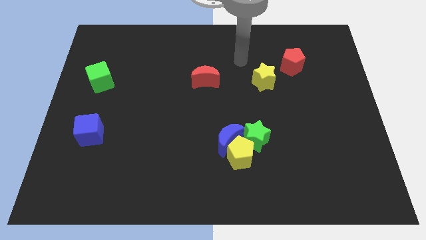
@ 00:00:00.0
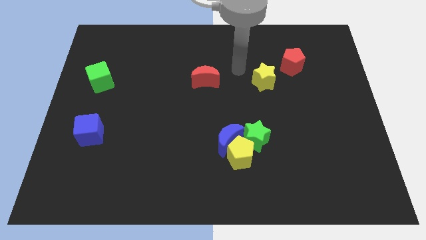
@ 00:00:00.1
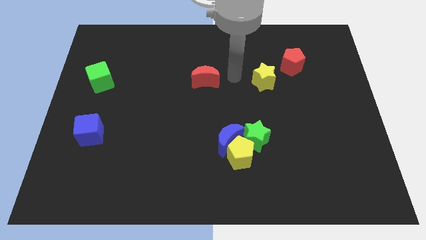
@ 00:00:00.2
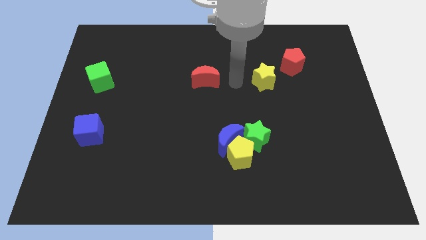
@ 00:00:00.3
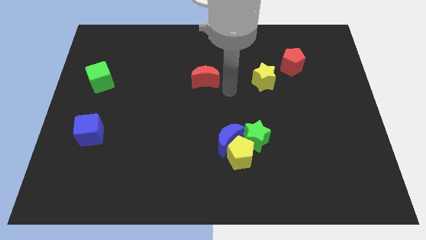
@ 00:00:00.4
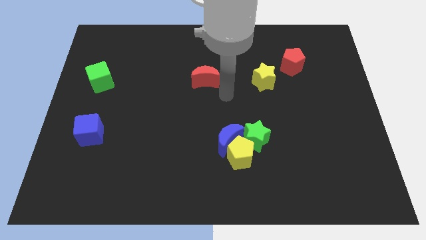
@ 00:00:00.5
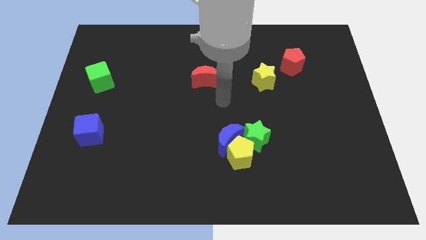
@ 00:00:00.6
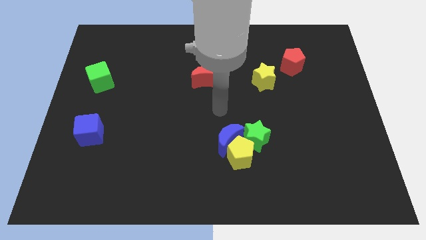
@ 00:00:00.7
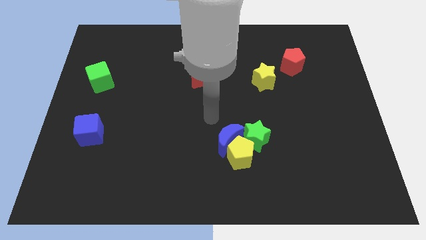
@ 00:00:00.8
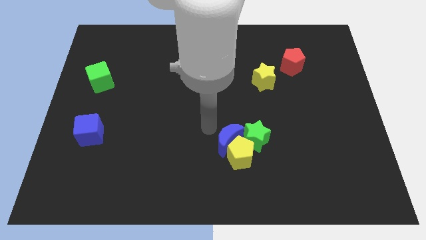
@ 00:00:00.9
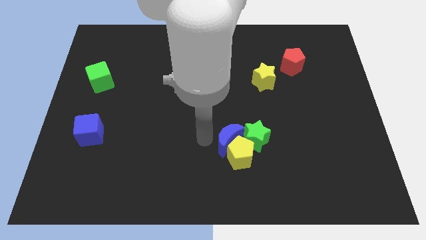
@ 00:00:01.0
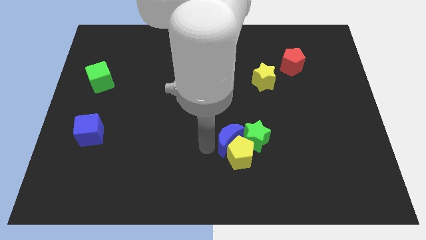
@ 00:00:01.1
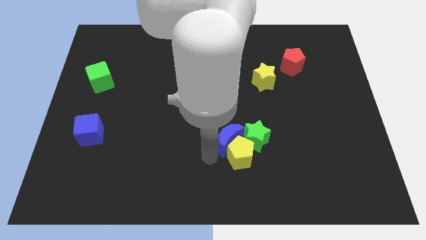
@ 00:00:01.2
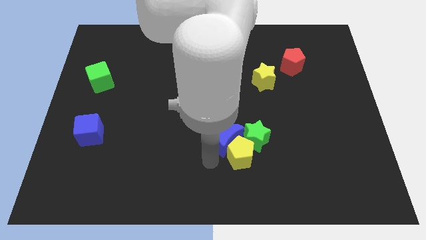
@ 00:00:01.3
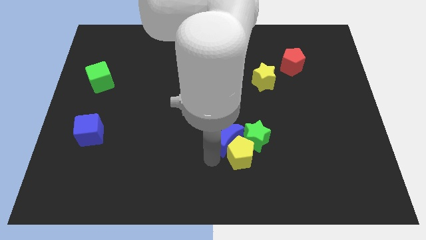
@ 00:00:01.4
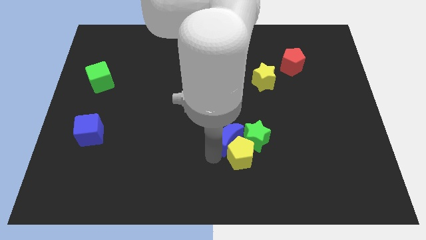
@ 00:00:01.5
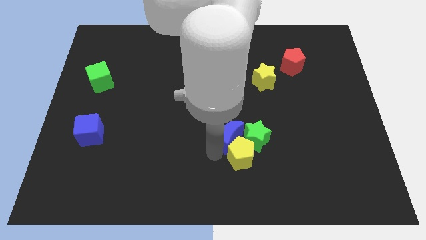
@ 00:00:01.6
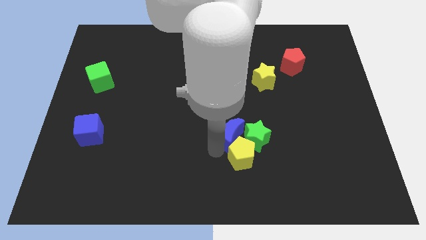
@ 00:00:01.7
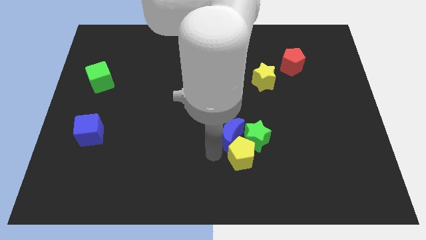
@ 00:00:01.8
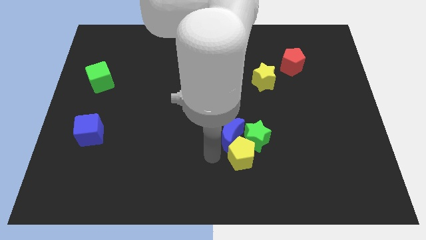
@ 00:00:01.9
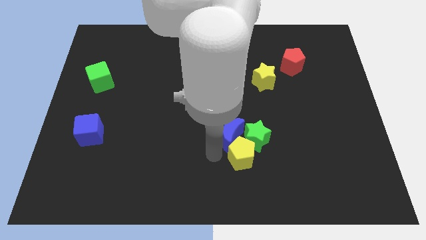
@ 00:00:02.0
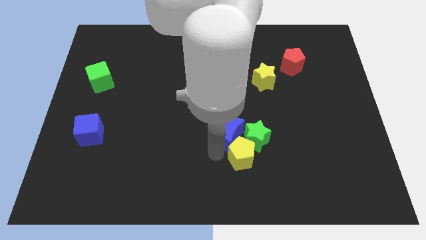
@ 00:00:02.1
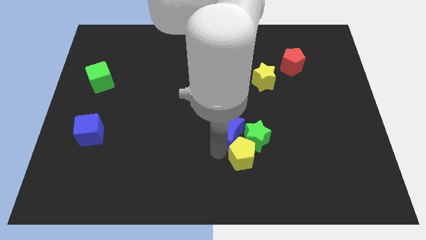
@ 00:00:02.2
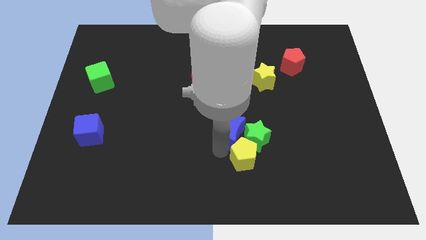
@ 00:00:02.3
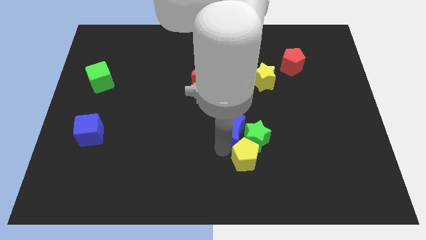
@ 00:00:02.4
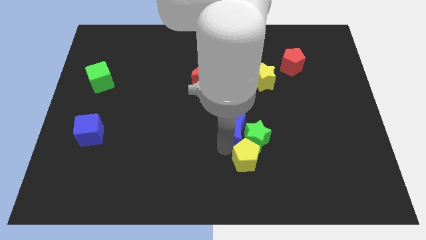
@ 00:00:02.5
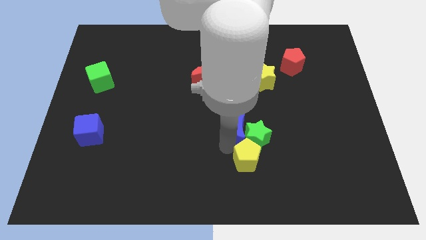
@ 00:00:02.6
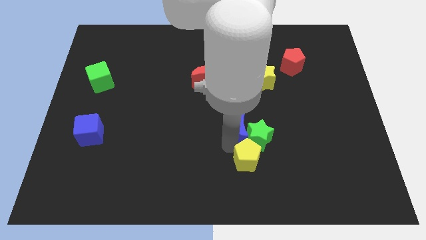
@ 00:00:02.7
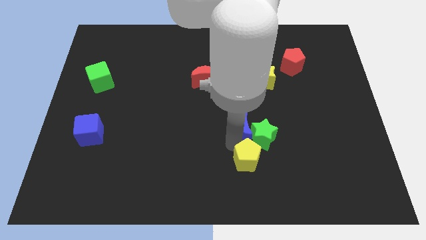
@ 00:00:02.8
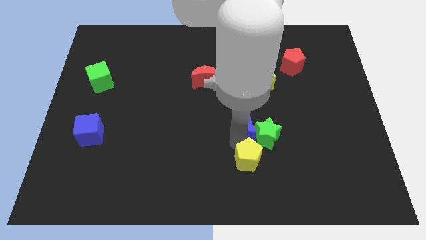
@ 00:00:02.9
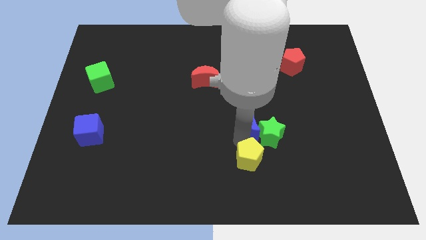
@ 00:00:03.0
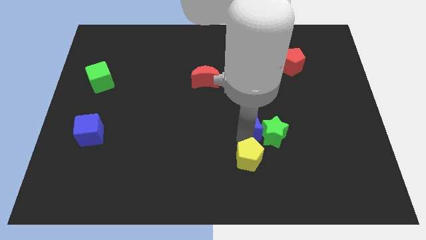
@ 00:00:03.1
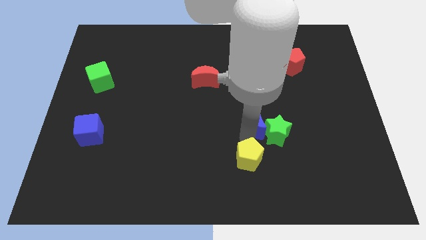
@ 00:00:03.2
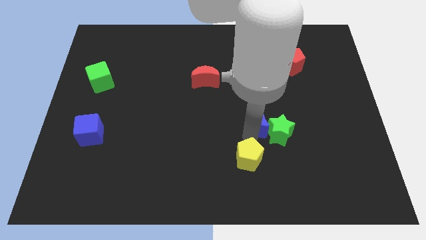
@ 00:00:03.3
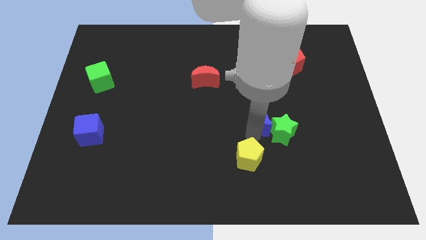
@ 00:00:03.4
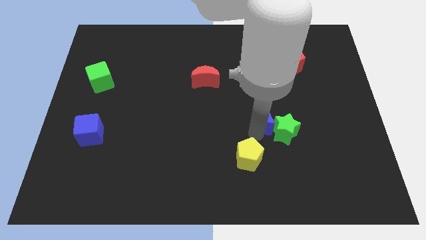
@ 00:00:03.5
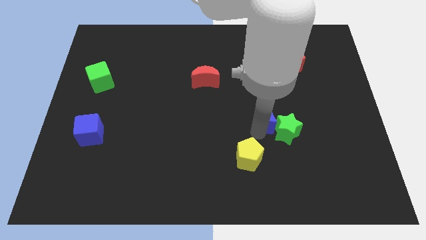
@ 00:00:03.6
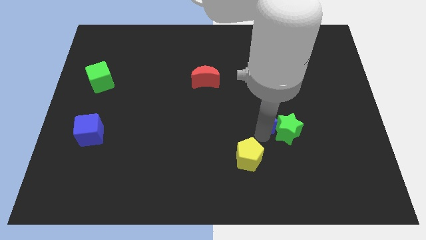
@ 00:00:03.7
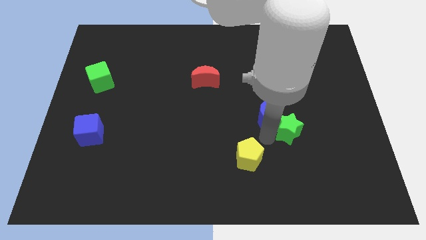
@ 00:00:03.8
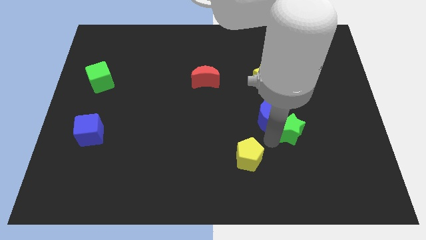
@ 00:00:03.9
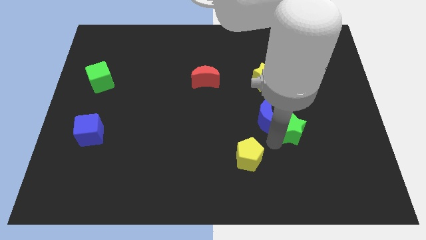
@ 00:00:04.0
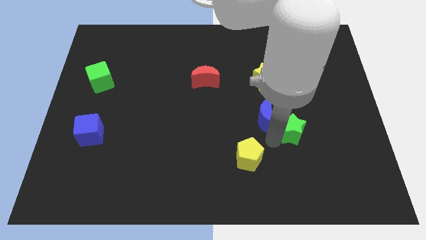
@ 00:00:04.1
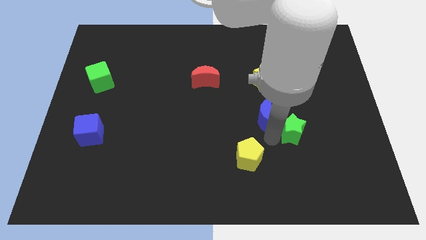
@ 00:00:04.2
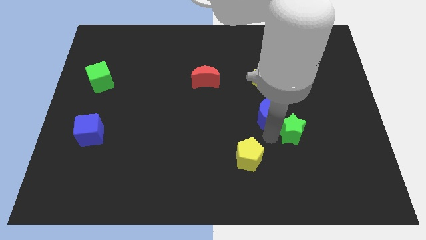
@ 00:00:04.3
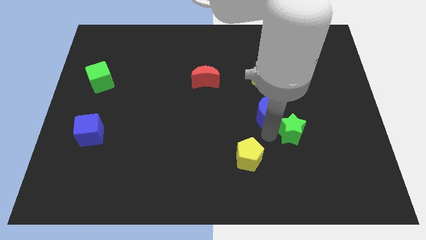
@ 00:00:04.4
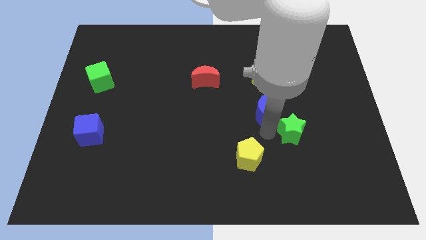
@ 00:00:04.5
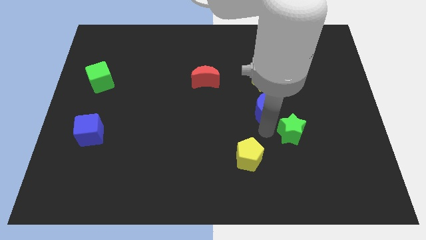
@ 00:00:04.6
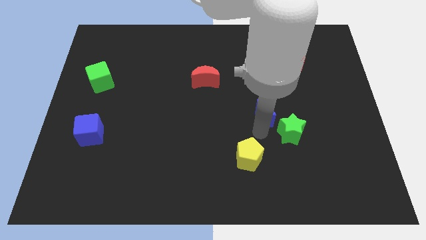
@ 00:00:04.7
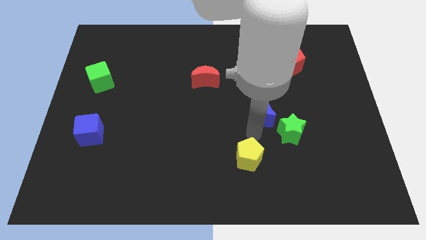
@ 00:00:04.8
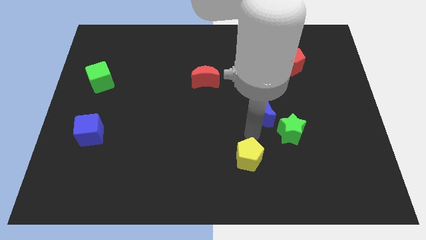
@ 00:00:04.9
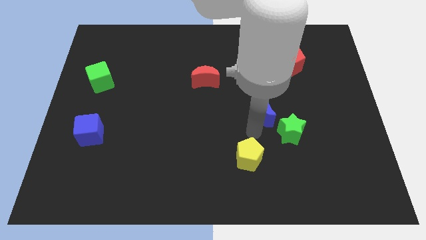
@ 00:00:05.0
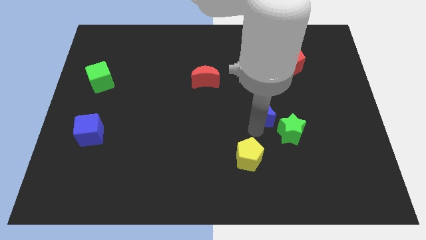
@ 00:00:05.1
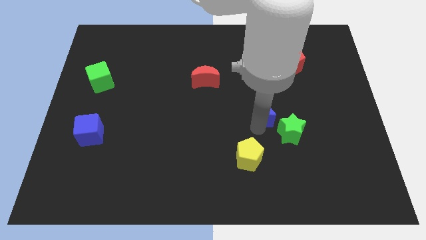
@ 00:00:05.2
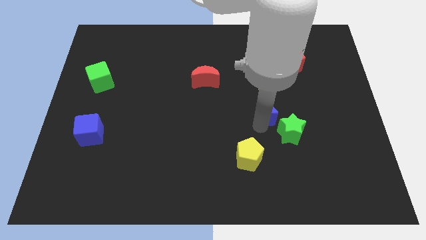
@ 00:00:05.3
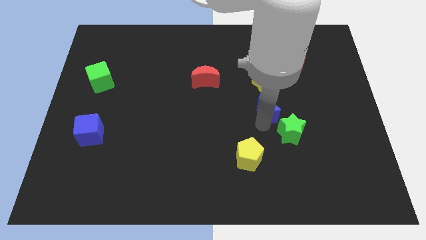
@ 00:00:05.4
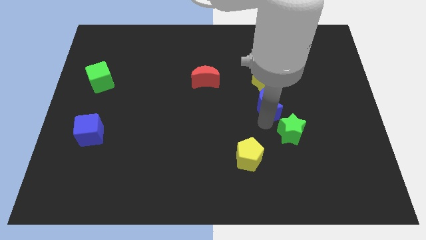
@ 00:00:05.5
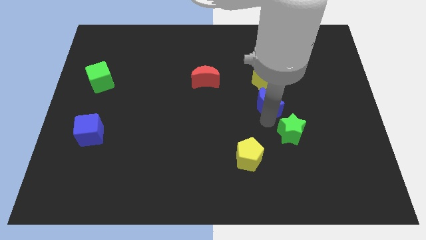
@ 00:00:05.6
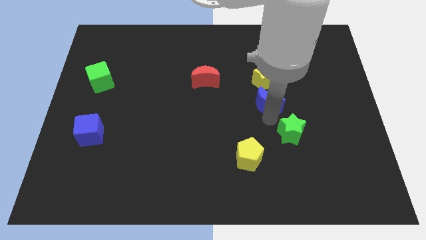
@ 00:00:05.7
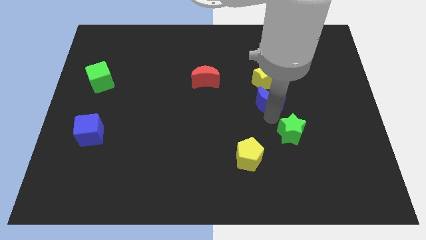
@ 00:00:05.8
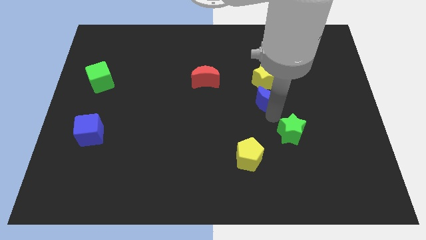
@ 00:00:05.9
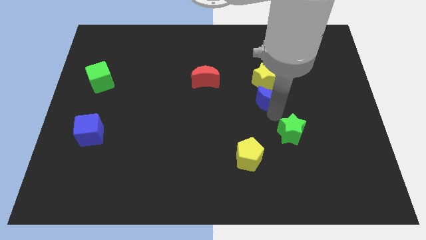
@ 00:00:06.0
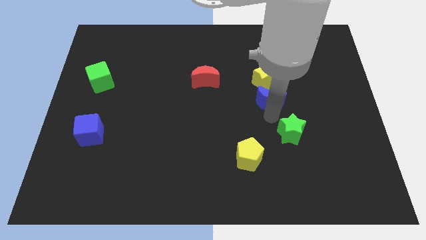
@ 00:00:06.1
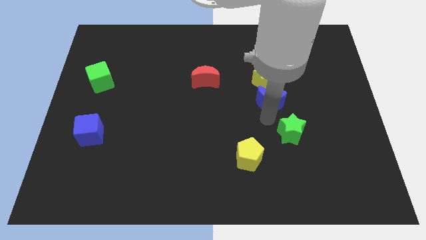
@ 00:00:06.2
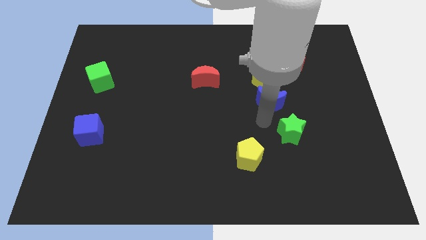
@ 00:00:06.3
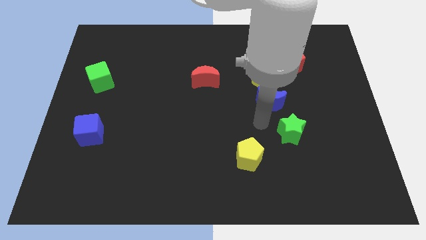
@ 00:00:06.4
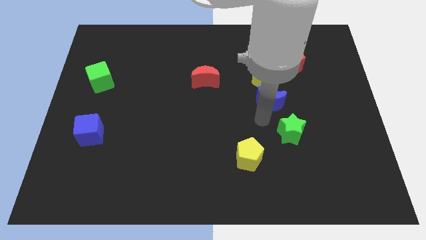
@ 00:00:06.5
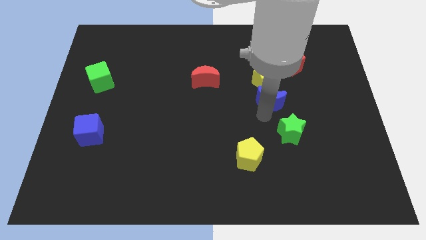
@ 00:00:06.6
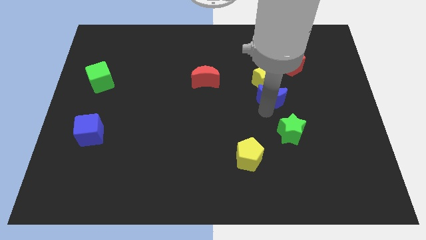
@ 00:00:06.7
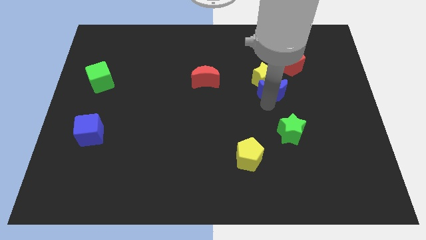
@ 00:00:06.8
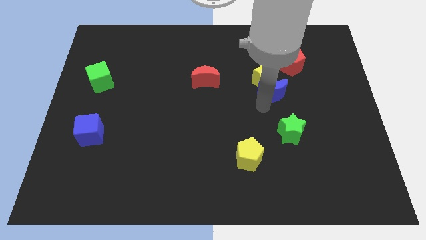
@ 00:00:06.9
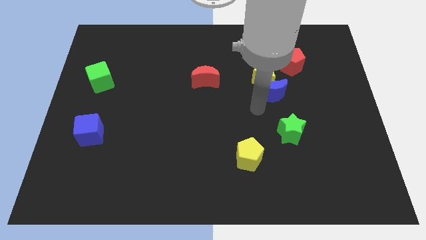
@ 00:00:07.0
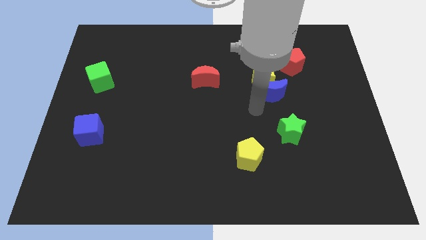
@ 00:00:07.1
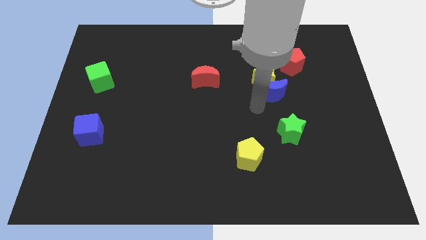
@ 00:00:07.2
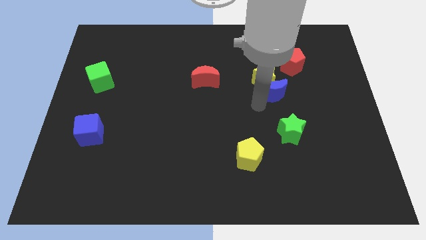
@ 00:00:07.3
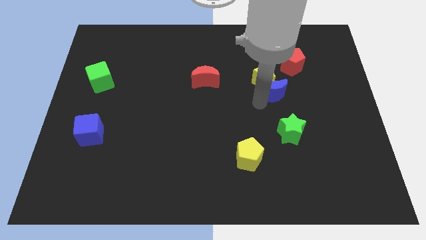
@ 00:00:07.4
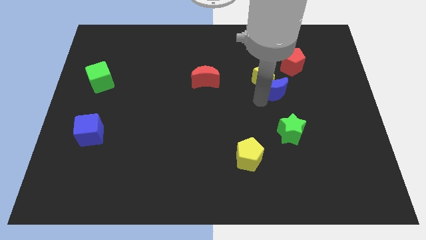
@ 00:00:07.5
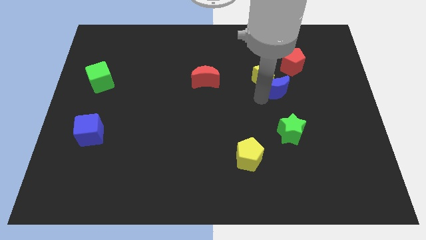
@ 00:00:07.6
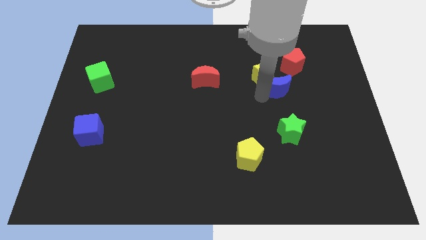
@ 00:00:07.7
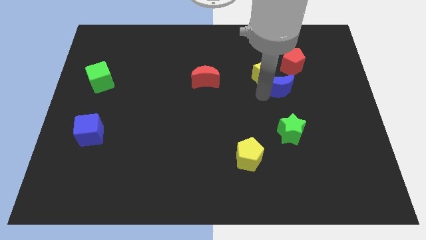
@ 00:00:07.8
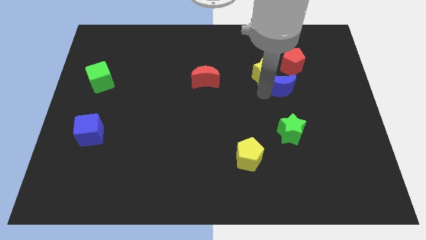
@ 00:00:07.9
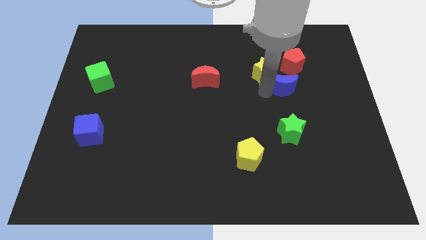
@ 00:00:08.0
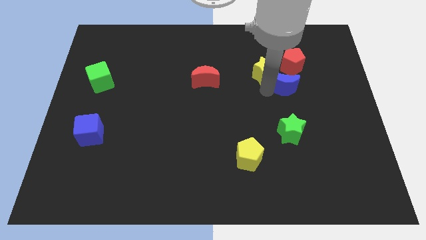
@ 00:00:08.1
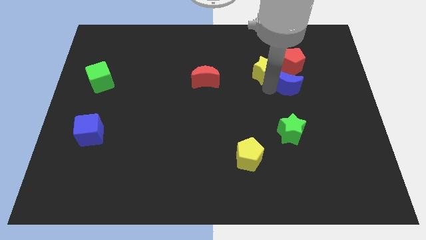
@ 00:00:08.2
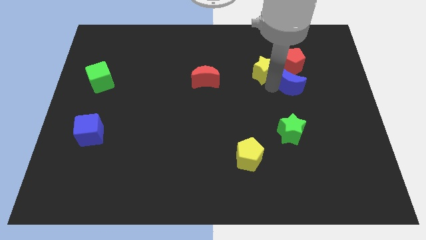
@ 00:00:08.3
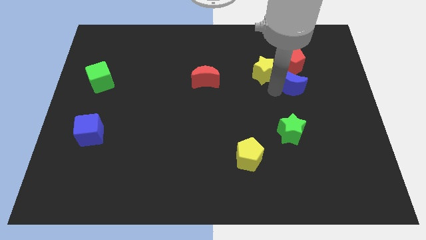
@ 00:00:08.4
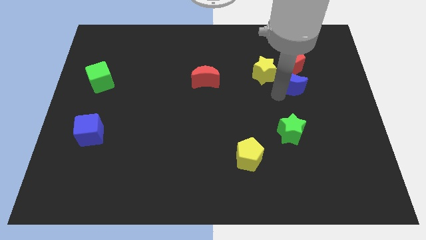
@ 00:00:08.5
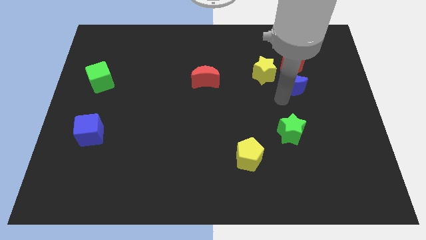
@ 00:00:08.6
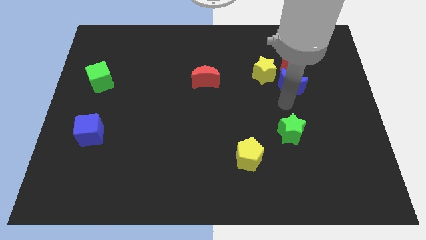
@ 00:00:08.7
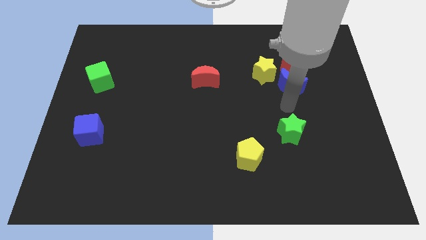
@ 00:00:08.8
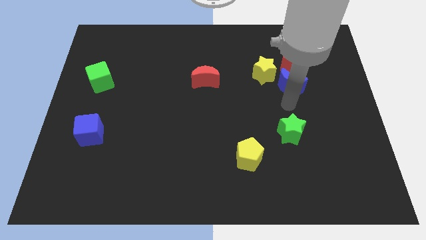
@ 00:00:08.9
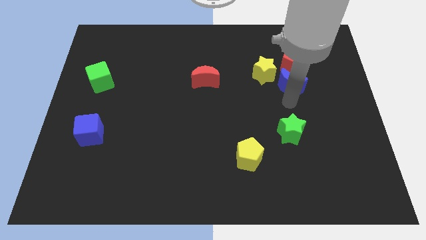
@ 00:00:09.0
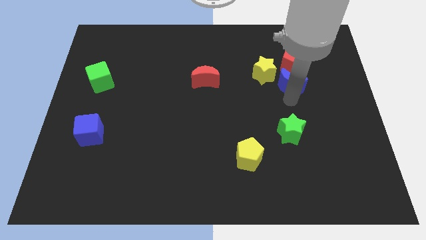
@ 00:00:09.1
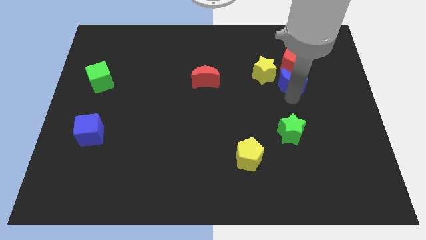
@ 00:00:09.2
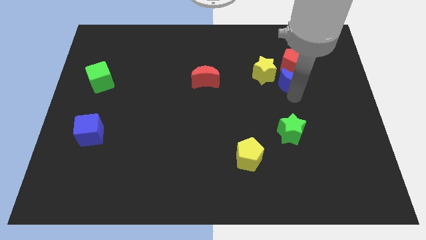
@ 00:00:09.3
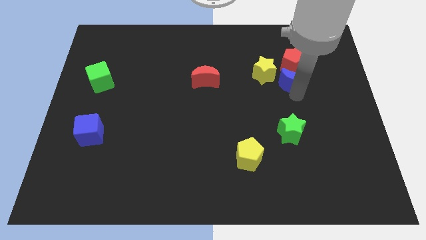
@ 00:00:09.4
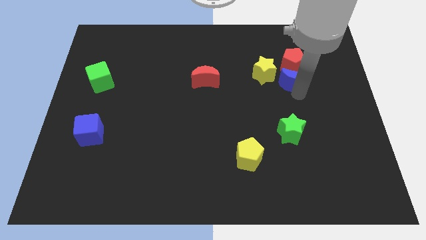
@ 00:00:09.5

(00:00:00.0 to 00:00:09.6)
slide the blue moon next to the red pentagon
